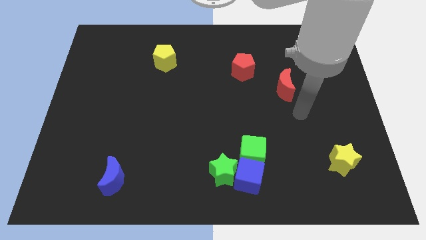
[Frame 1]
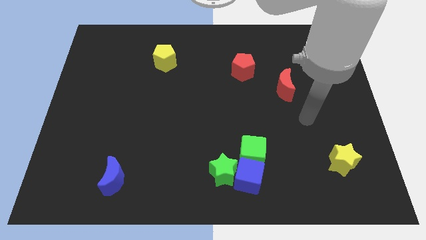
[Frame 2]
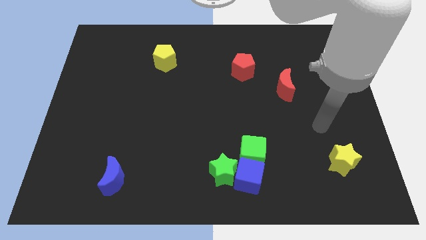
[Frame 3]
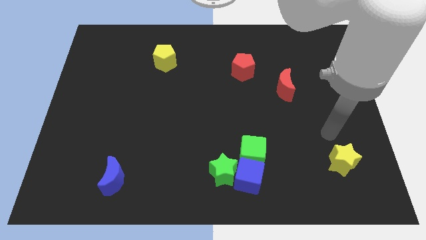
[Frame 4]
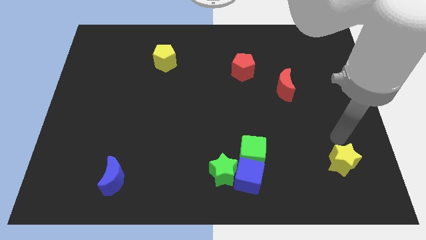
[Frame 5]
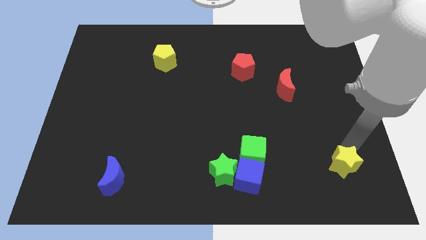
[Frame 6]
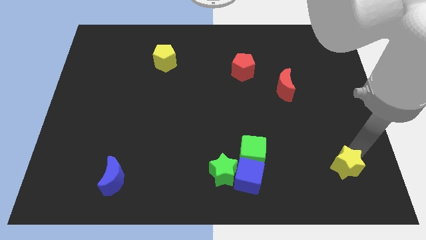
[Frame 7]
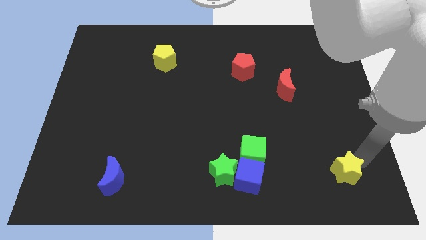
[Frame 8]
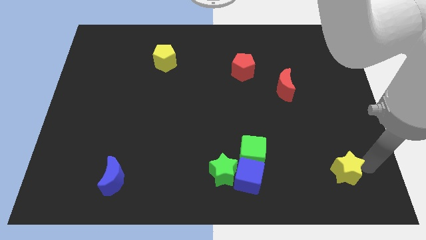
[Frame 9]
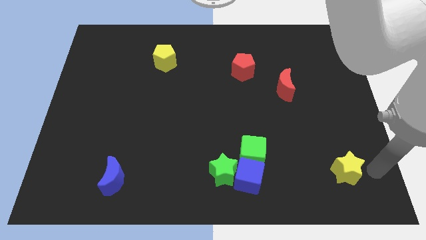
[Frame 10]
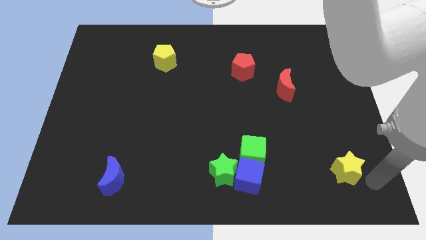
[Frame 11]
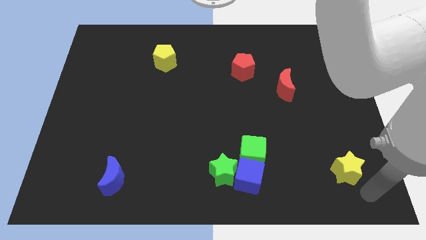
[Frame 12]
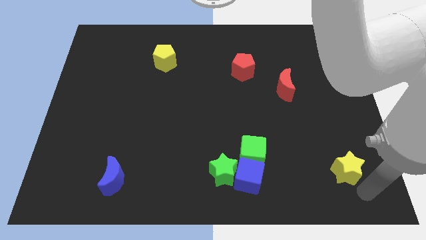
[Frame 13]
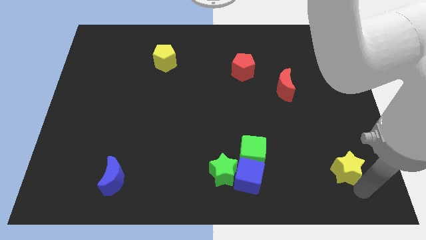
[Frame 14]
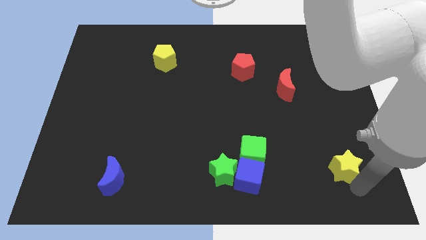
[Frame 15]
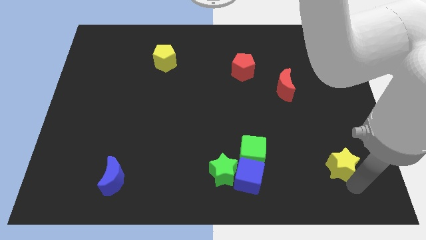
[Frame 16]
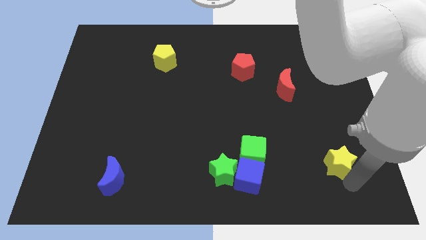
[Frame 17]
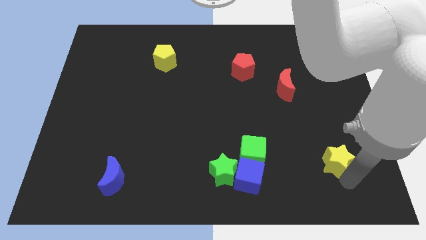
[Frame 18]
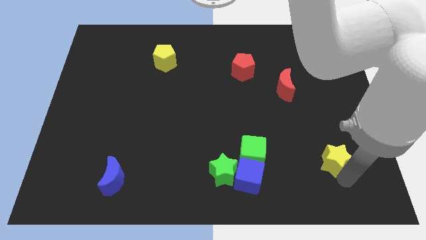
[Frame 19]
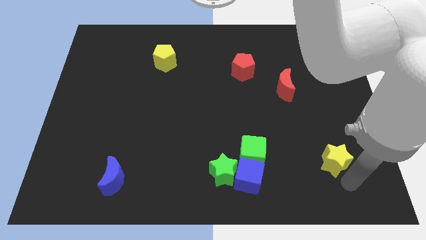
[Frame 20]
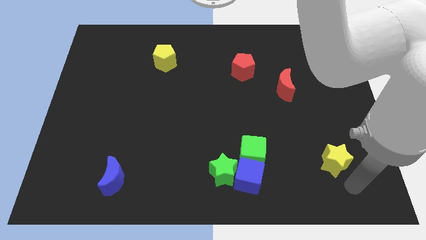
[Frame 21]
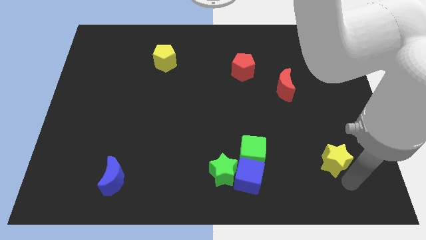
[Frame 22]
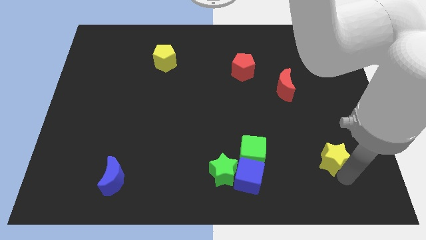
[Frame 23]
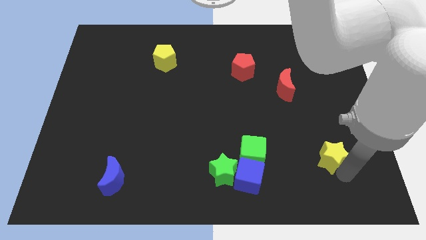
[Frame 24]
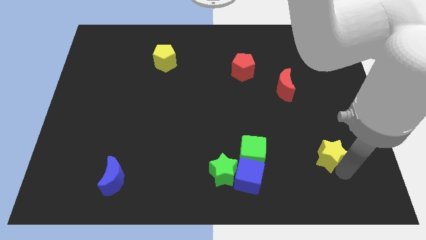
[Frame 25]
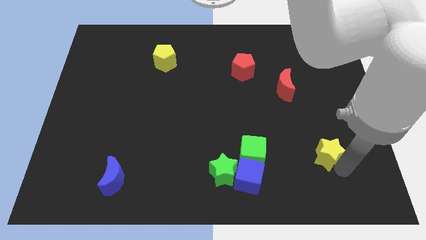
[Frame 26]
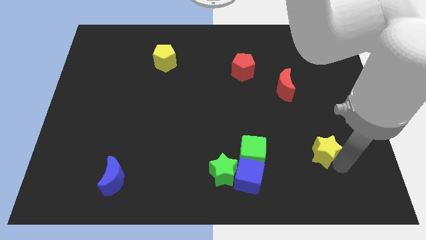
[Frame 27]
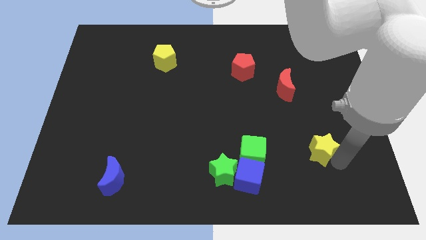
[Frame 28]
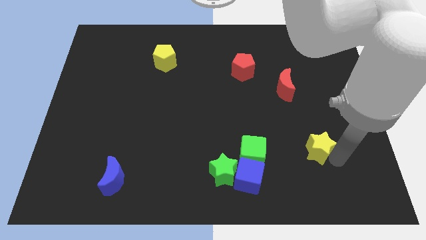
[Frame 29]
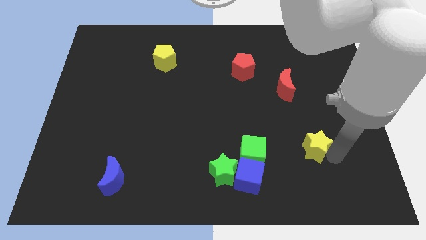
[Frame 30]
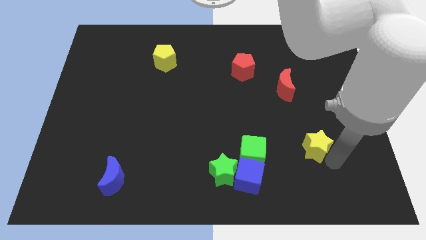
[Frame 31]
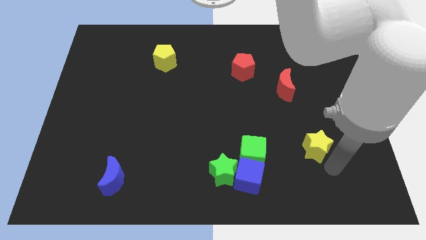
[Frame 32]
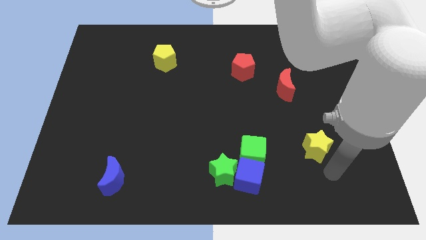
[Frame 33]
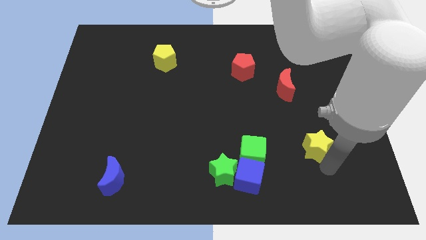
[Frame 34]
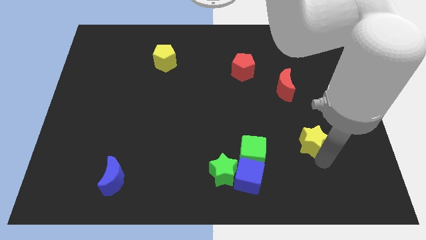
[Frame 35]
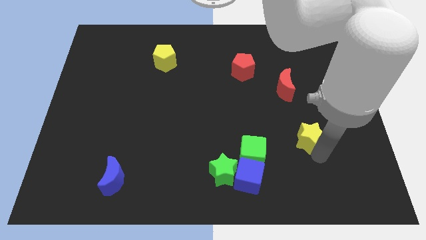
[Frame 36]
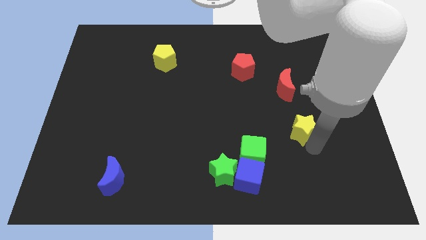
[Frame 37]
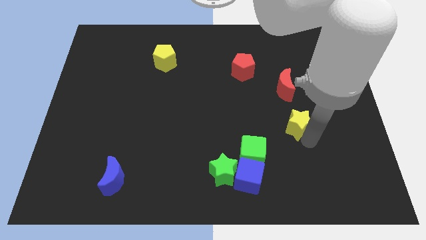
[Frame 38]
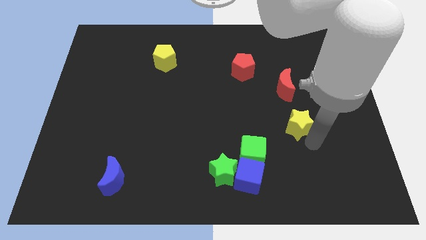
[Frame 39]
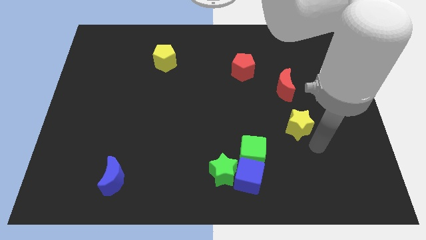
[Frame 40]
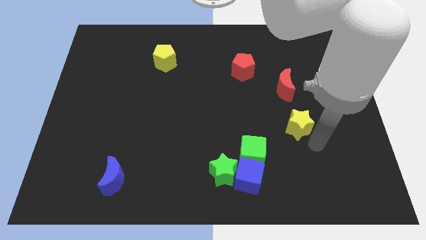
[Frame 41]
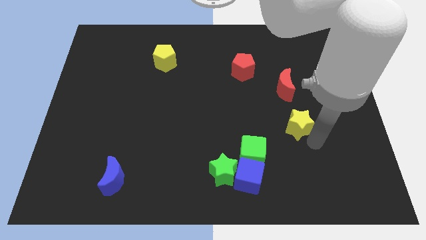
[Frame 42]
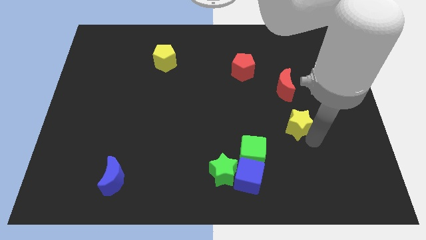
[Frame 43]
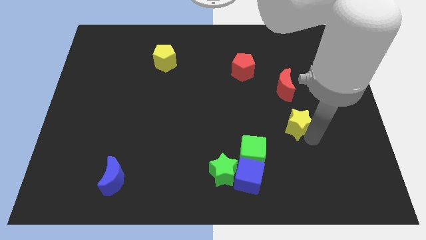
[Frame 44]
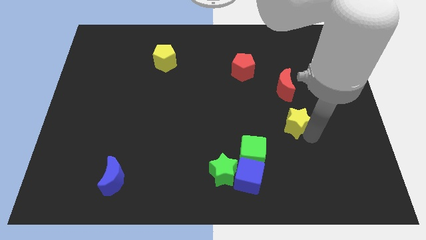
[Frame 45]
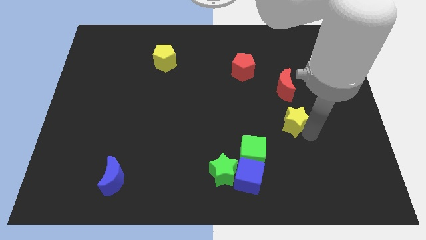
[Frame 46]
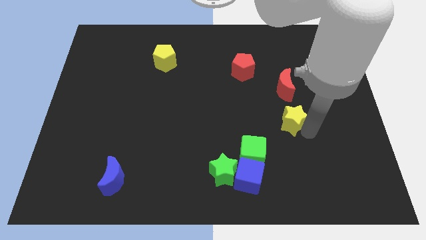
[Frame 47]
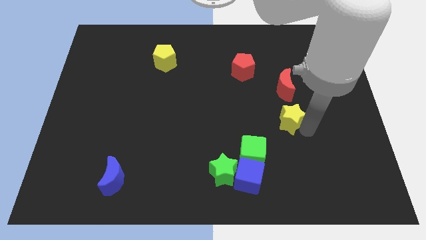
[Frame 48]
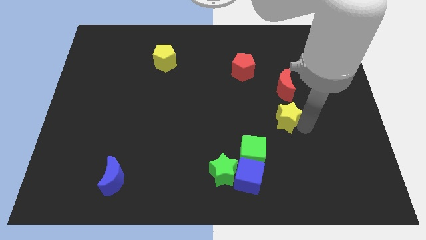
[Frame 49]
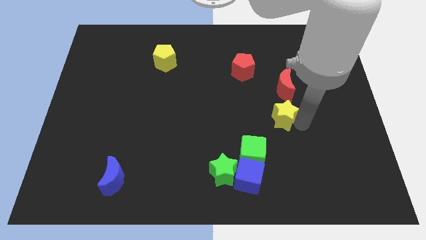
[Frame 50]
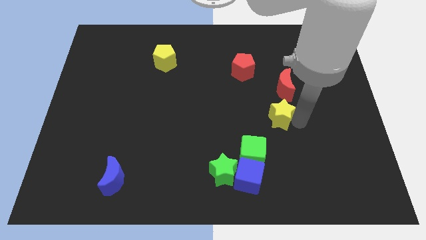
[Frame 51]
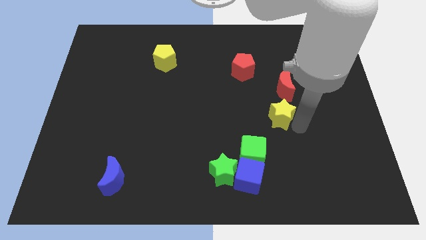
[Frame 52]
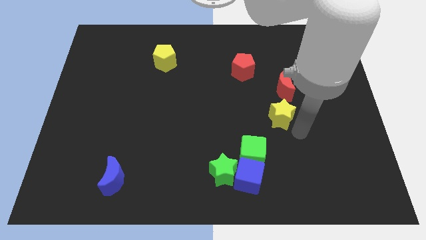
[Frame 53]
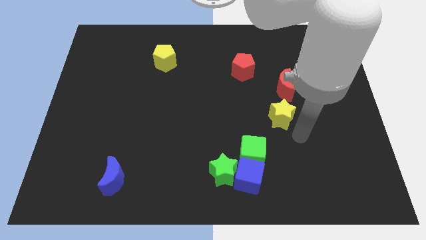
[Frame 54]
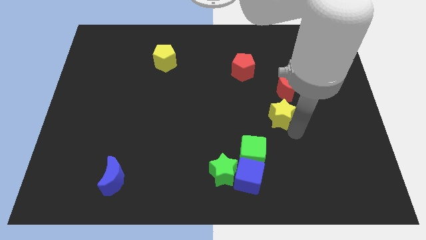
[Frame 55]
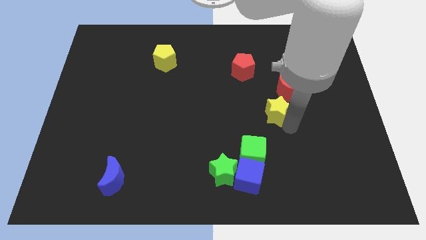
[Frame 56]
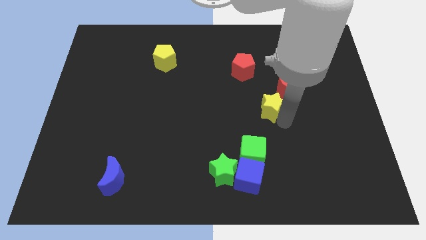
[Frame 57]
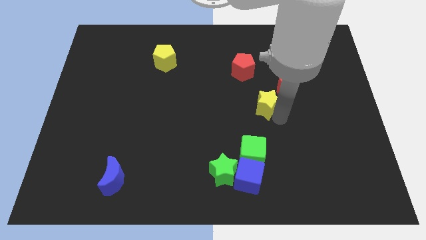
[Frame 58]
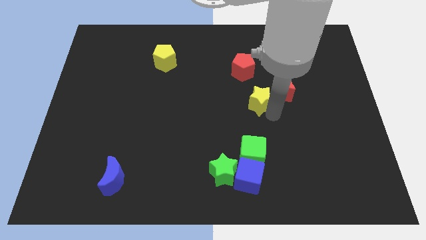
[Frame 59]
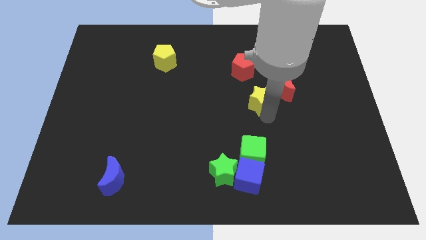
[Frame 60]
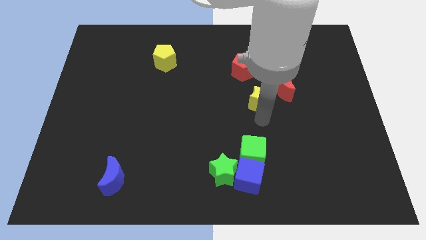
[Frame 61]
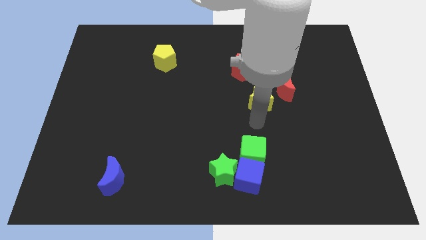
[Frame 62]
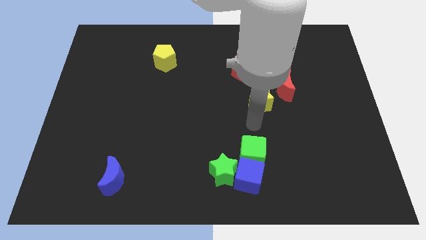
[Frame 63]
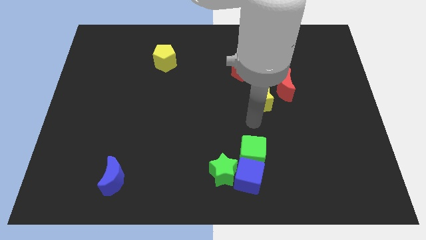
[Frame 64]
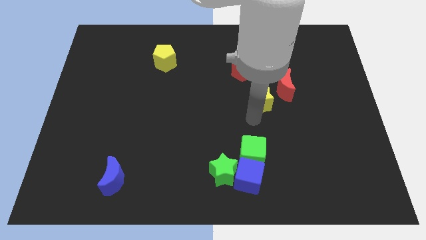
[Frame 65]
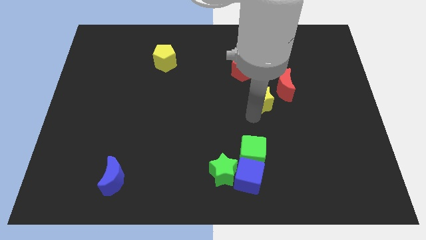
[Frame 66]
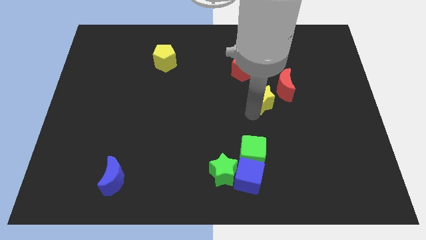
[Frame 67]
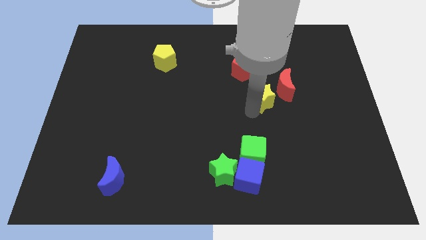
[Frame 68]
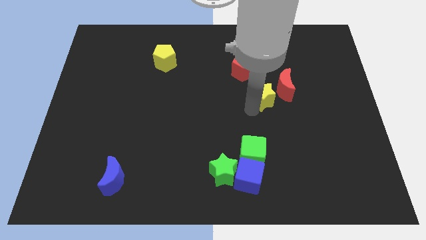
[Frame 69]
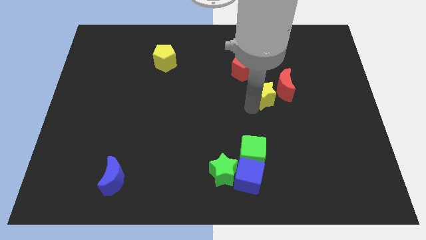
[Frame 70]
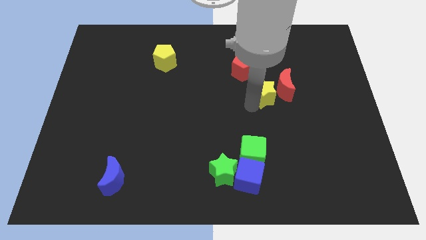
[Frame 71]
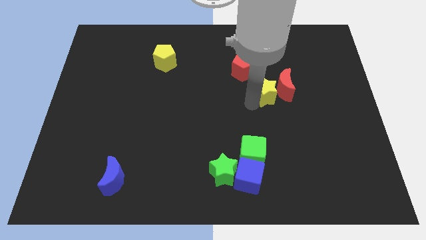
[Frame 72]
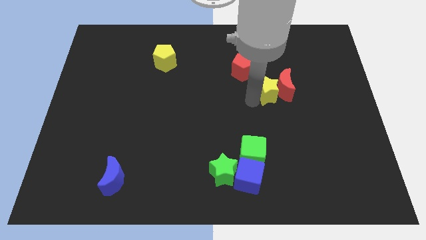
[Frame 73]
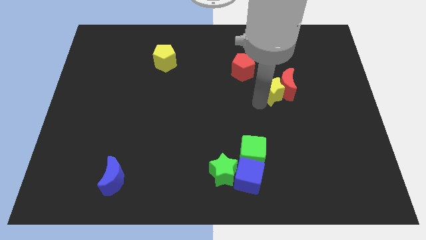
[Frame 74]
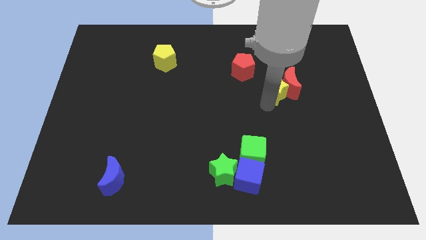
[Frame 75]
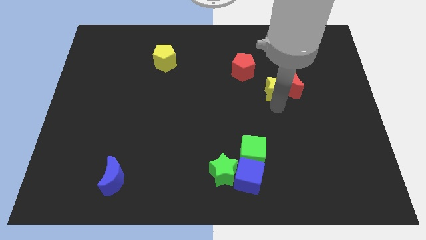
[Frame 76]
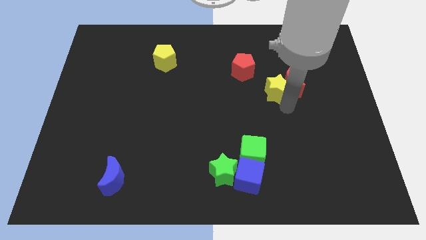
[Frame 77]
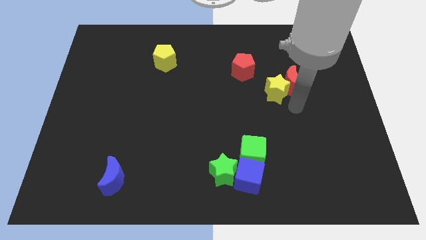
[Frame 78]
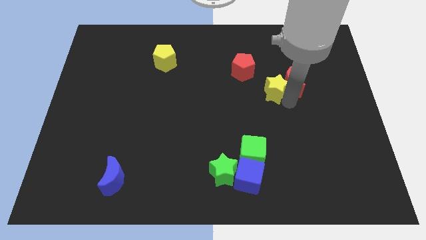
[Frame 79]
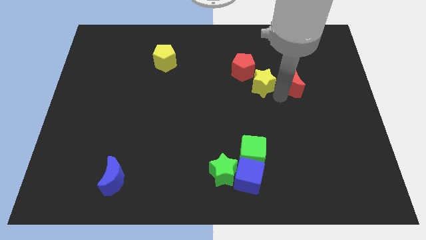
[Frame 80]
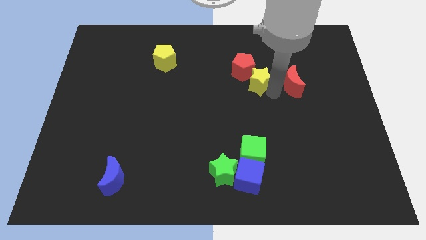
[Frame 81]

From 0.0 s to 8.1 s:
slide the yellow star to the red pentagon

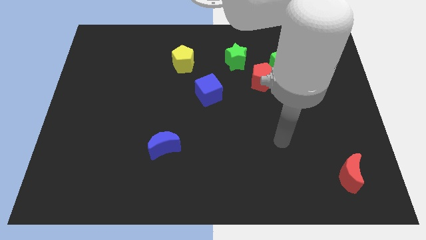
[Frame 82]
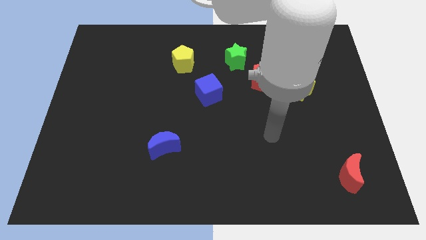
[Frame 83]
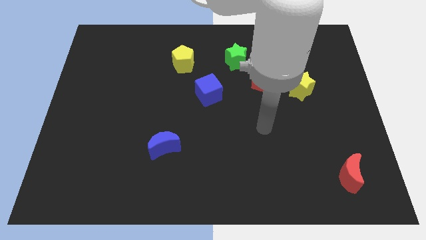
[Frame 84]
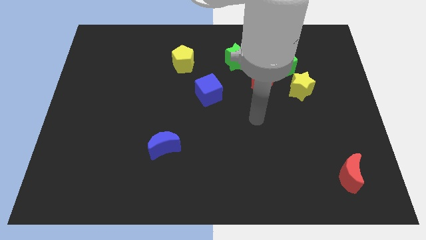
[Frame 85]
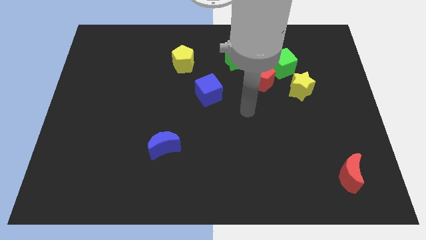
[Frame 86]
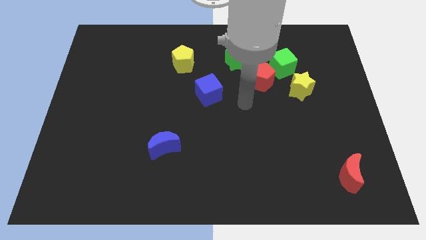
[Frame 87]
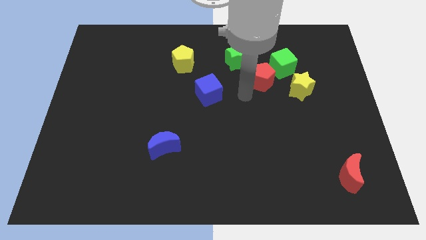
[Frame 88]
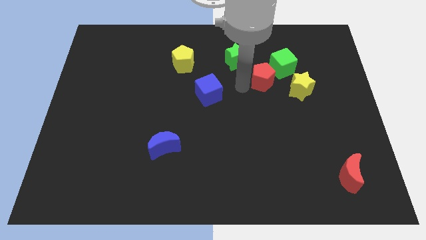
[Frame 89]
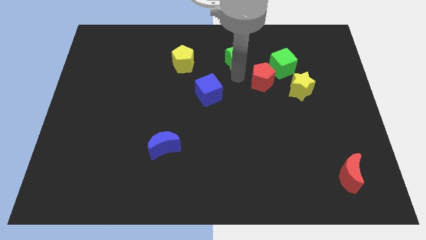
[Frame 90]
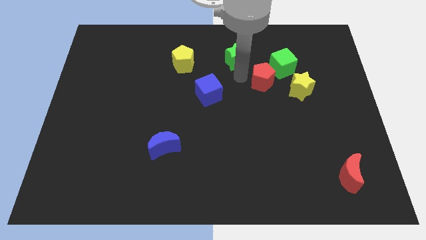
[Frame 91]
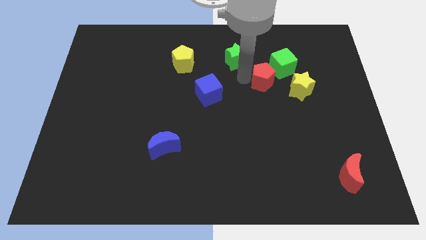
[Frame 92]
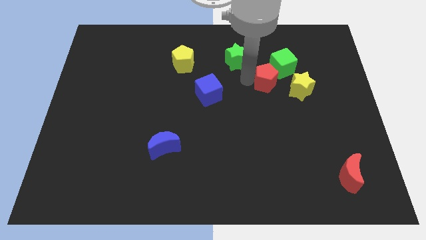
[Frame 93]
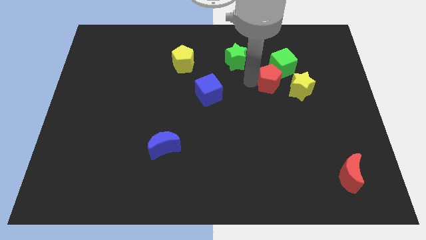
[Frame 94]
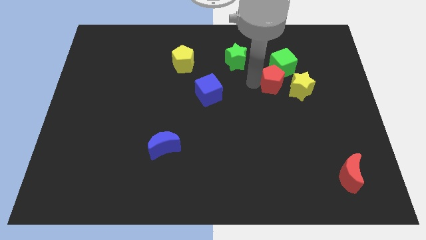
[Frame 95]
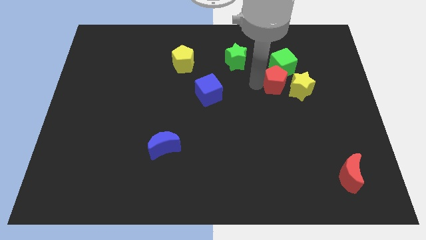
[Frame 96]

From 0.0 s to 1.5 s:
move the red pentagon next to the yellow star
